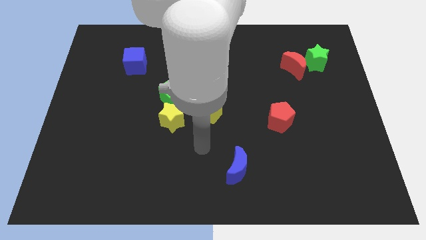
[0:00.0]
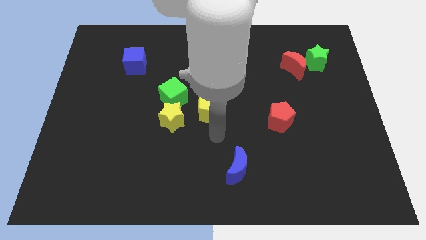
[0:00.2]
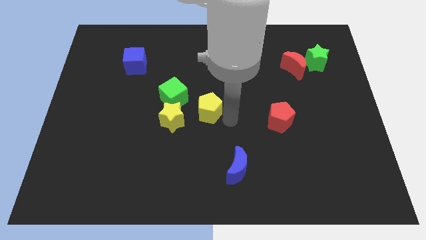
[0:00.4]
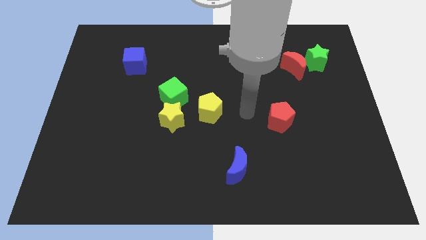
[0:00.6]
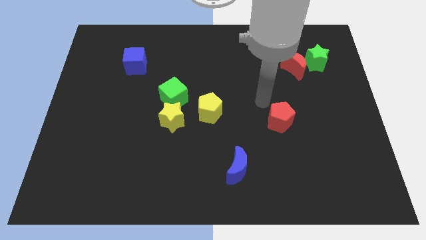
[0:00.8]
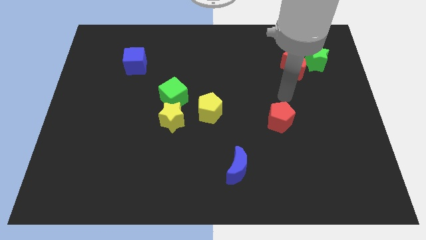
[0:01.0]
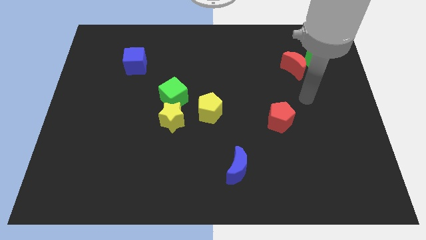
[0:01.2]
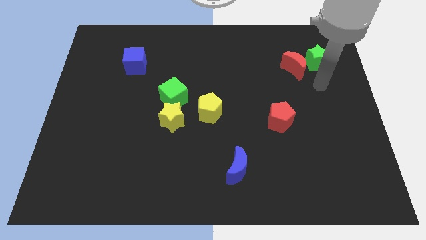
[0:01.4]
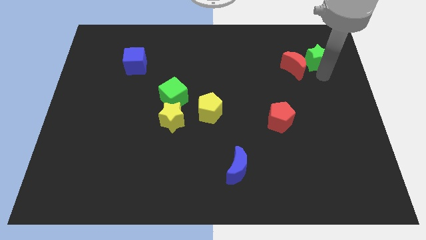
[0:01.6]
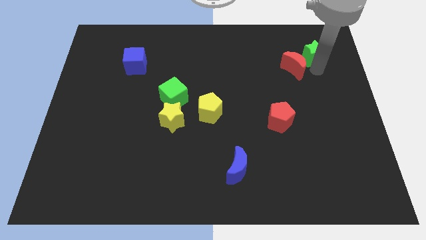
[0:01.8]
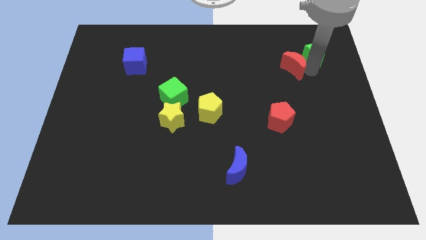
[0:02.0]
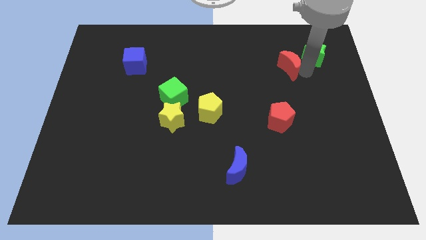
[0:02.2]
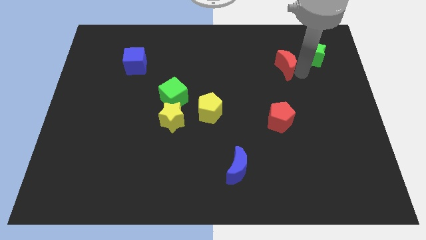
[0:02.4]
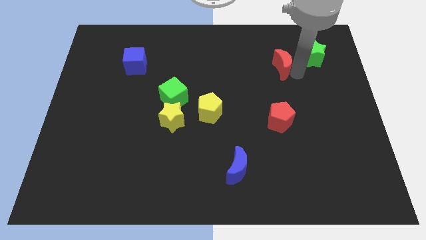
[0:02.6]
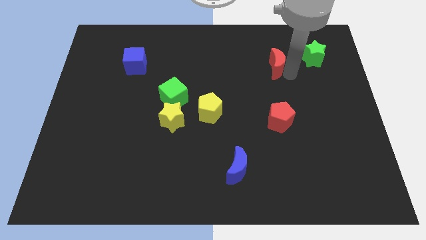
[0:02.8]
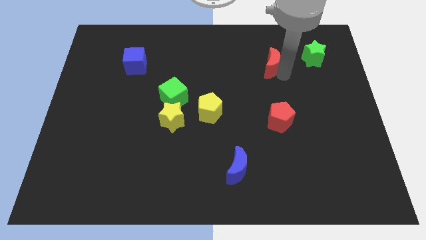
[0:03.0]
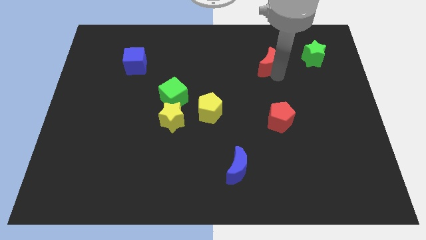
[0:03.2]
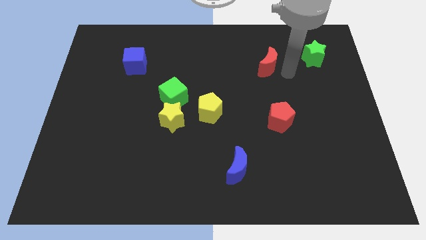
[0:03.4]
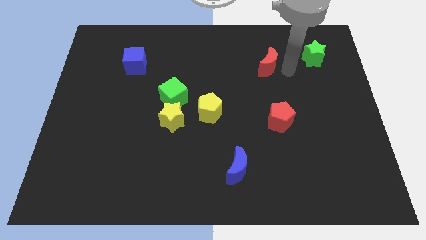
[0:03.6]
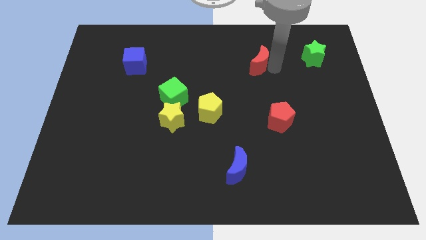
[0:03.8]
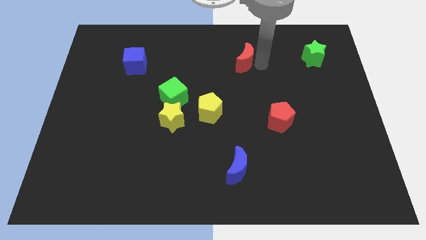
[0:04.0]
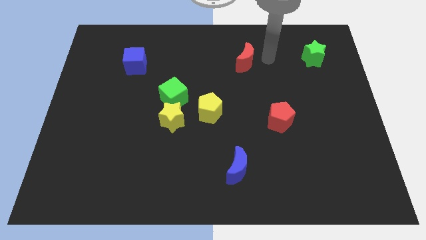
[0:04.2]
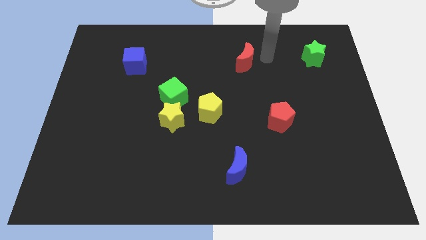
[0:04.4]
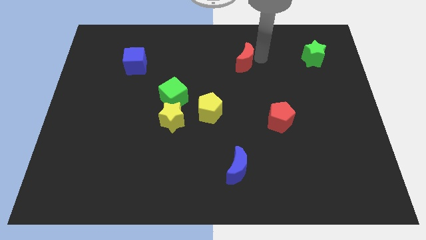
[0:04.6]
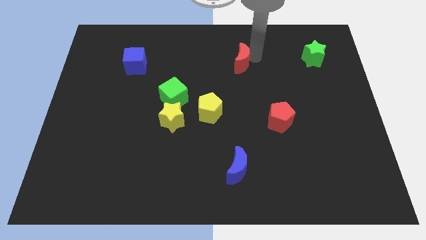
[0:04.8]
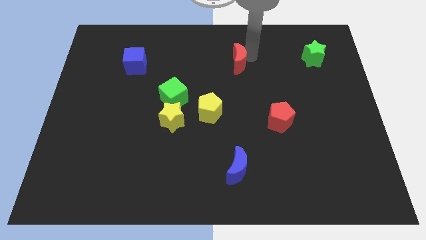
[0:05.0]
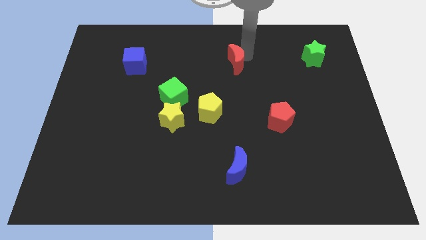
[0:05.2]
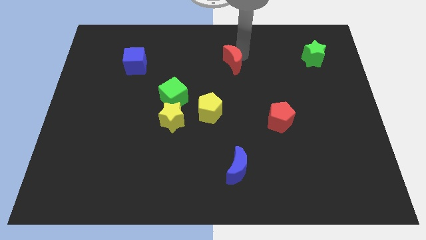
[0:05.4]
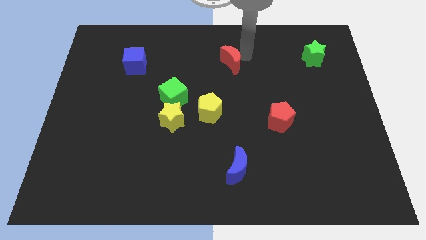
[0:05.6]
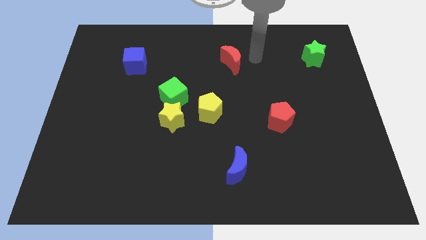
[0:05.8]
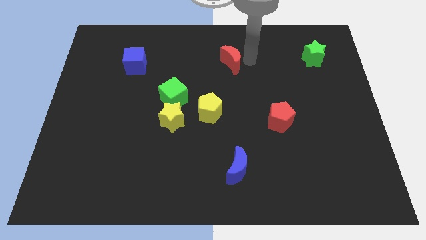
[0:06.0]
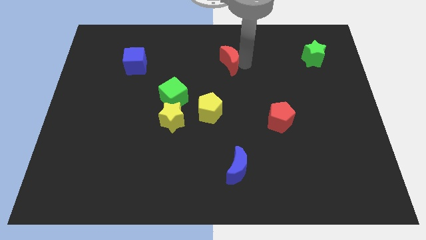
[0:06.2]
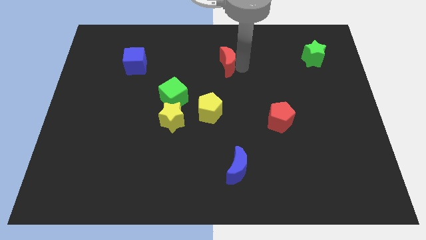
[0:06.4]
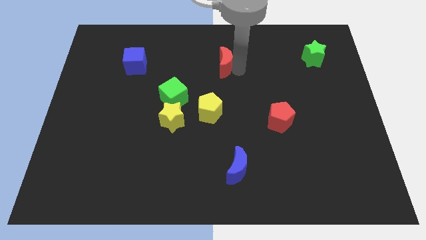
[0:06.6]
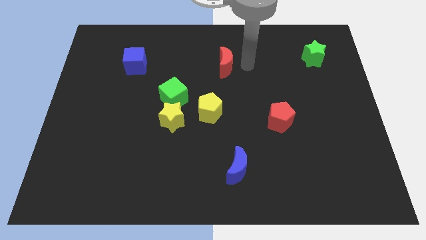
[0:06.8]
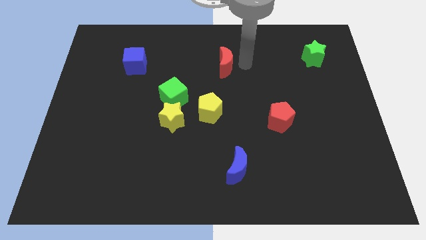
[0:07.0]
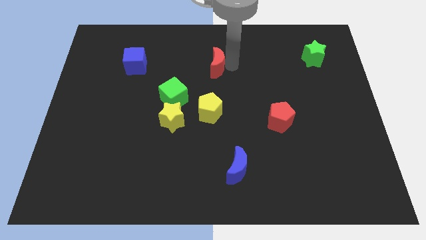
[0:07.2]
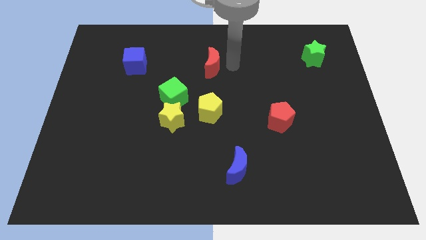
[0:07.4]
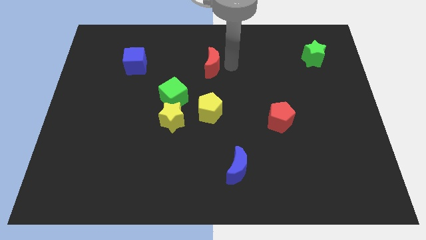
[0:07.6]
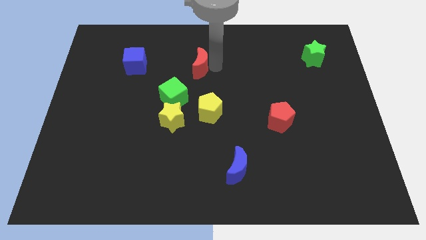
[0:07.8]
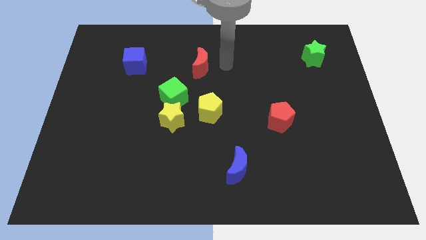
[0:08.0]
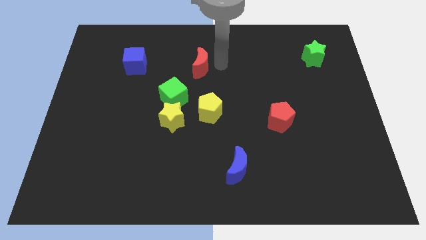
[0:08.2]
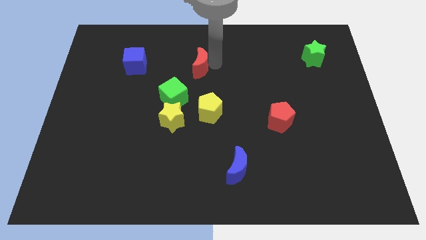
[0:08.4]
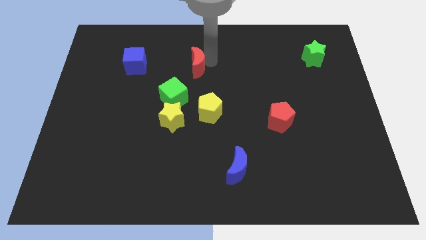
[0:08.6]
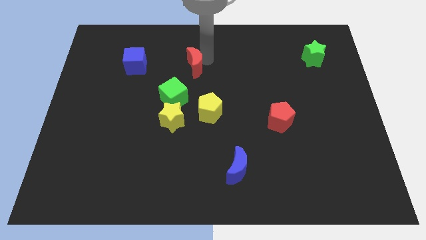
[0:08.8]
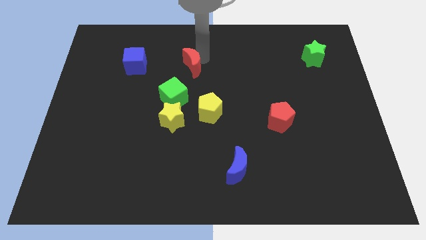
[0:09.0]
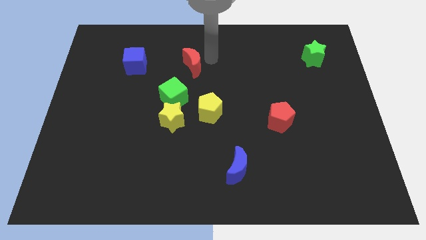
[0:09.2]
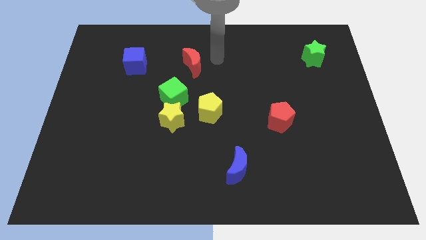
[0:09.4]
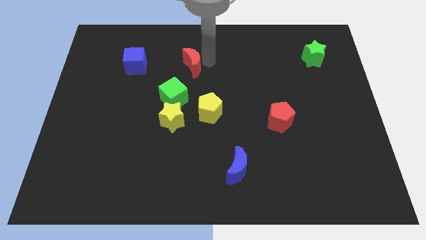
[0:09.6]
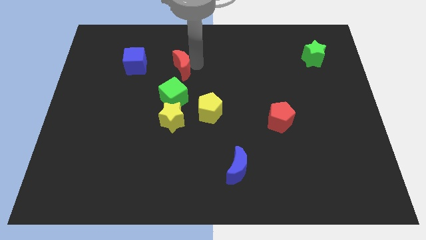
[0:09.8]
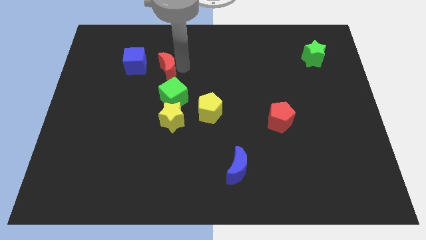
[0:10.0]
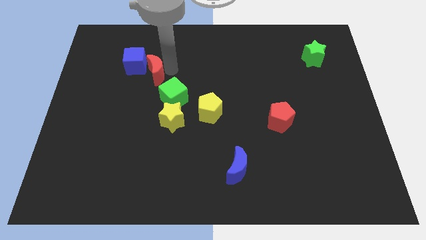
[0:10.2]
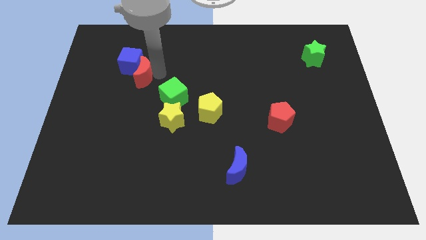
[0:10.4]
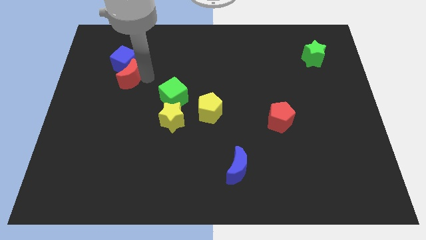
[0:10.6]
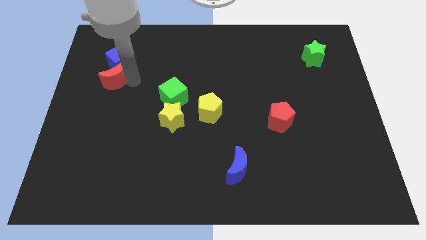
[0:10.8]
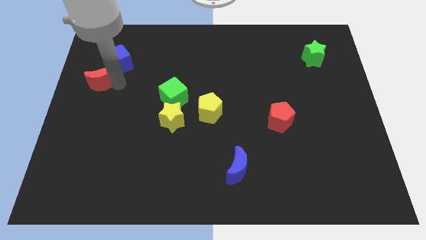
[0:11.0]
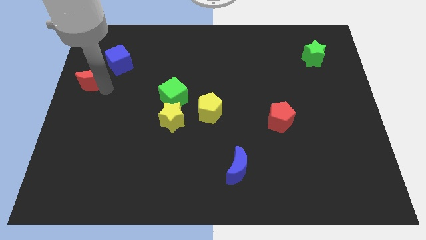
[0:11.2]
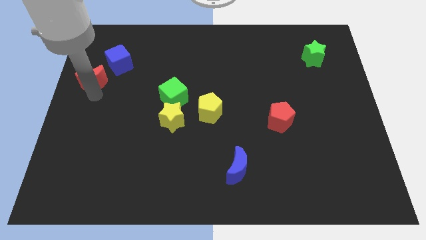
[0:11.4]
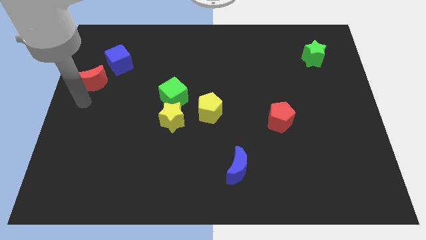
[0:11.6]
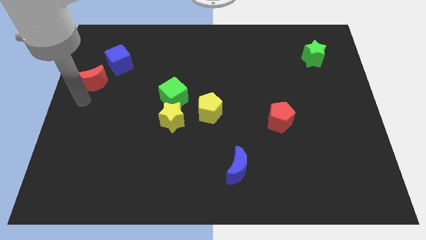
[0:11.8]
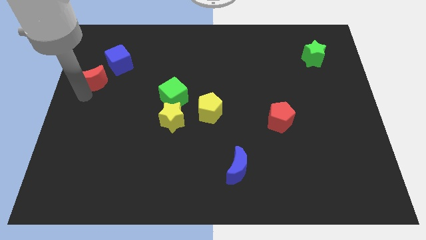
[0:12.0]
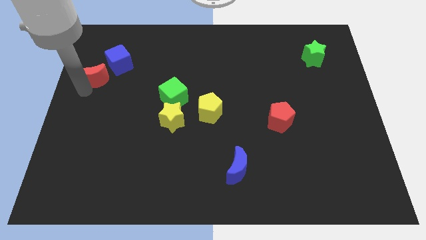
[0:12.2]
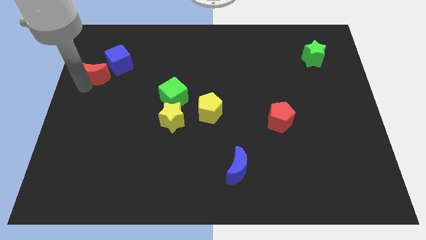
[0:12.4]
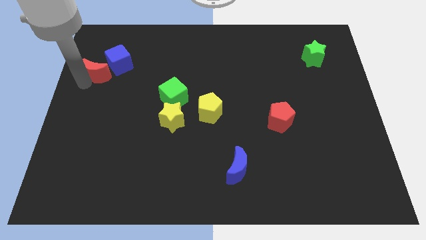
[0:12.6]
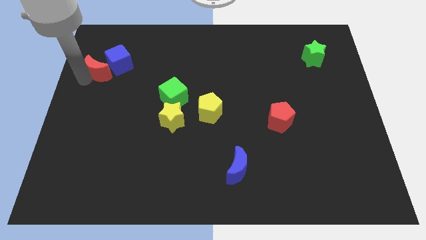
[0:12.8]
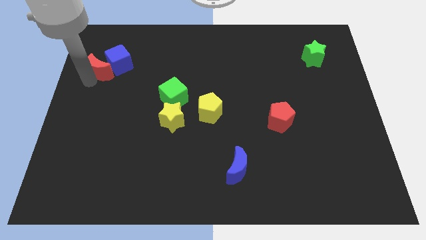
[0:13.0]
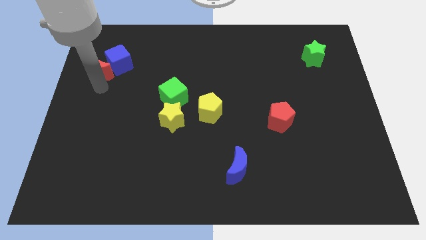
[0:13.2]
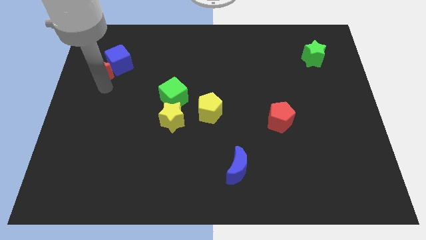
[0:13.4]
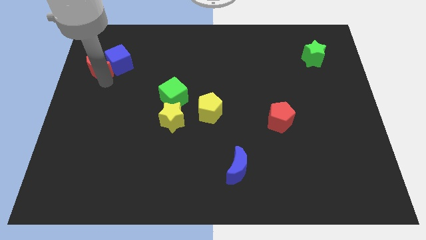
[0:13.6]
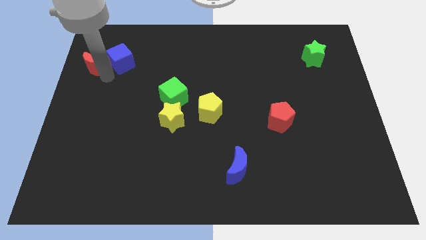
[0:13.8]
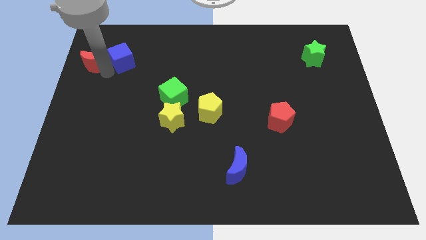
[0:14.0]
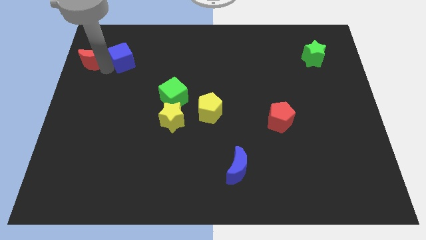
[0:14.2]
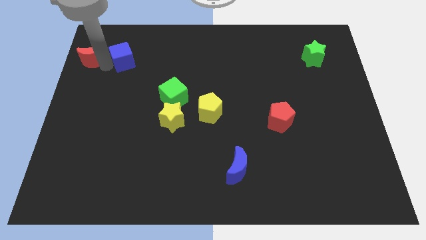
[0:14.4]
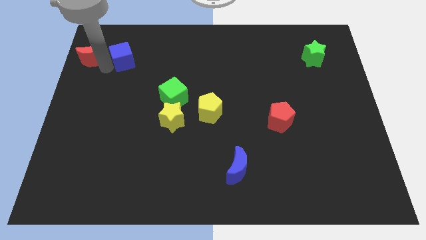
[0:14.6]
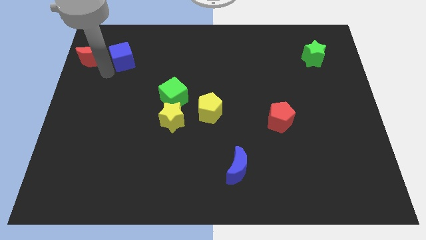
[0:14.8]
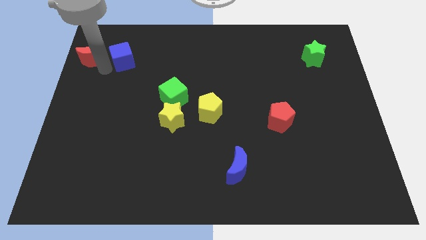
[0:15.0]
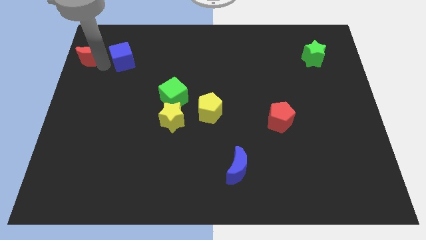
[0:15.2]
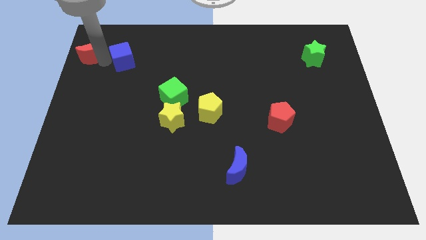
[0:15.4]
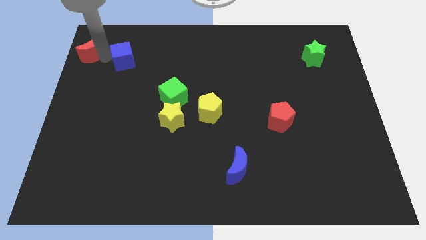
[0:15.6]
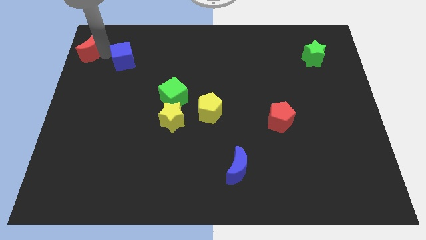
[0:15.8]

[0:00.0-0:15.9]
slide the red moon to the top left of the board
